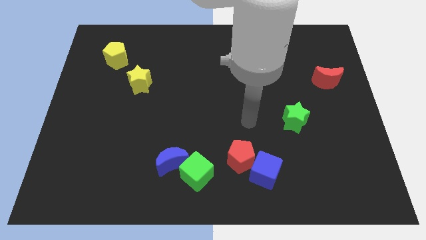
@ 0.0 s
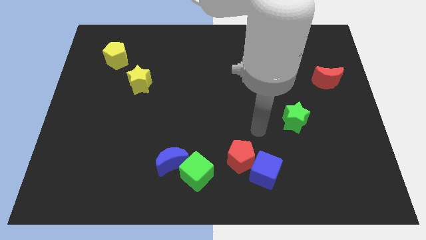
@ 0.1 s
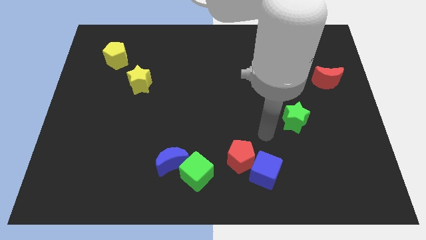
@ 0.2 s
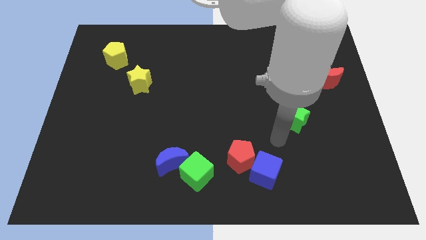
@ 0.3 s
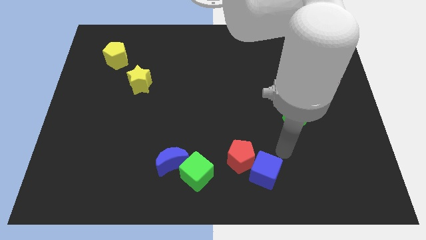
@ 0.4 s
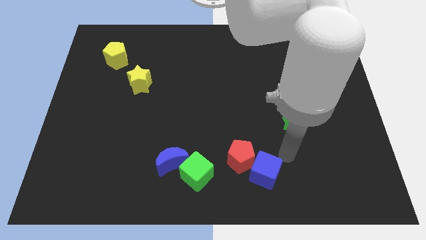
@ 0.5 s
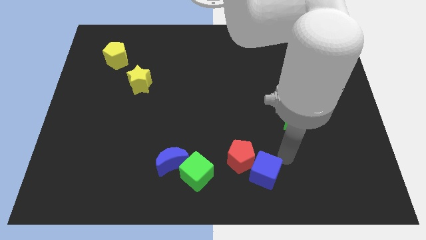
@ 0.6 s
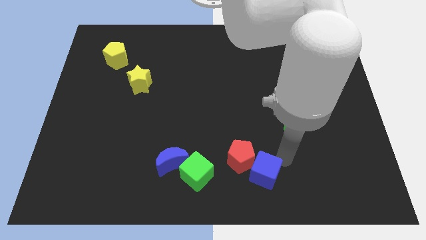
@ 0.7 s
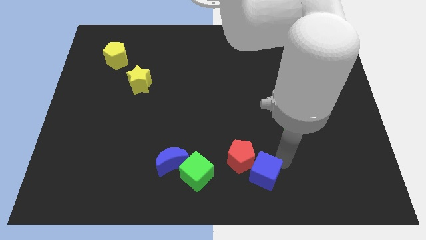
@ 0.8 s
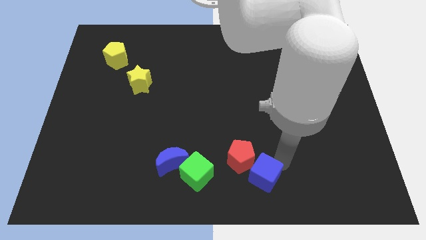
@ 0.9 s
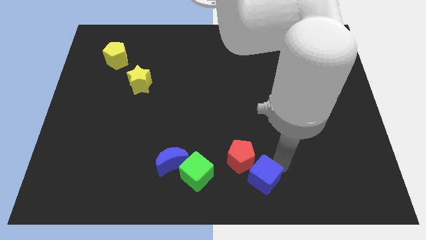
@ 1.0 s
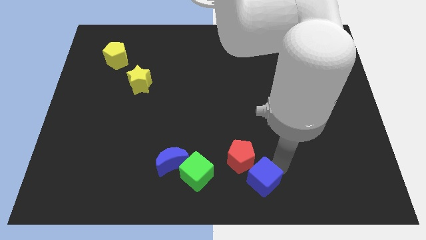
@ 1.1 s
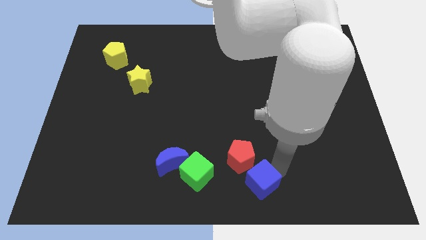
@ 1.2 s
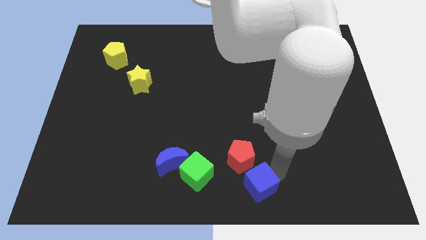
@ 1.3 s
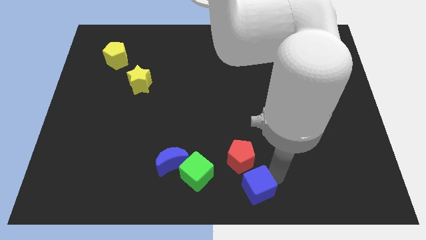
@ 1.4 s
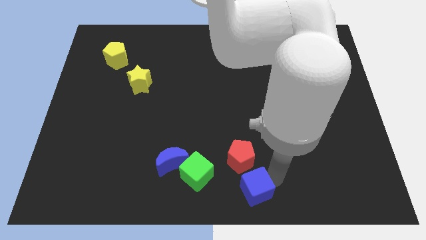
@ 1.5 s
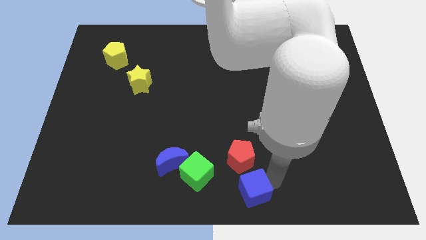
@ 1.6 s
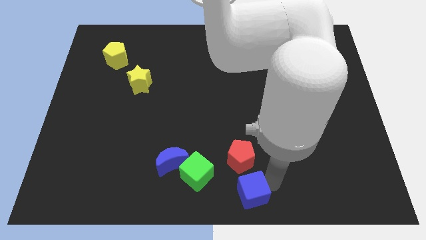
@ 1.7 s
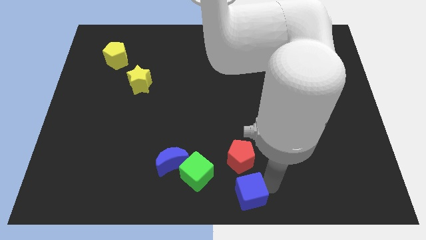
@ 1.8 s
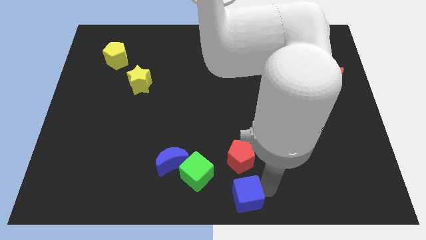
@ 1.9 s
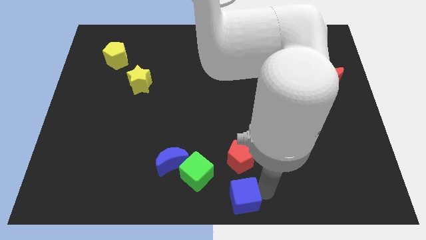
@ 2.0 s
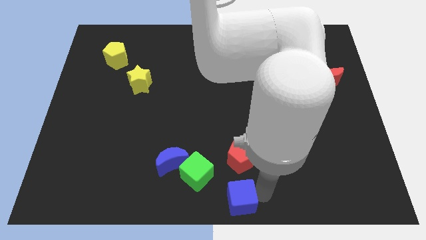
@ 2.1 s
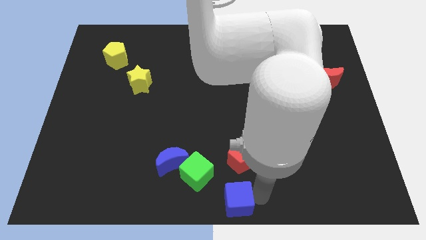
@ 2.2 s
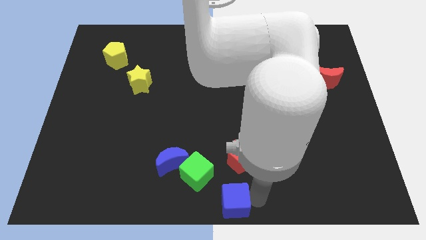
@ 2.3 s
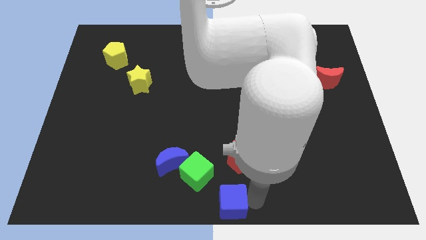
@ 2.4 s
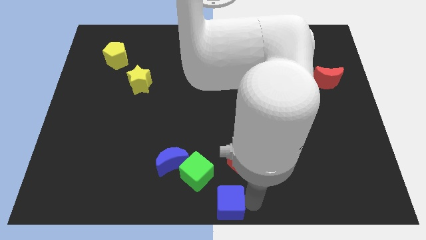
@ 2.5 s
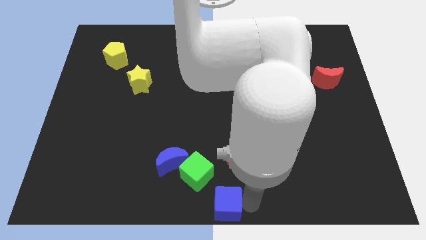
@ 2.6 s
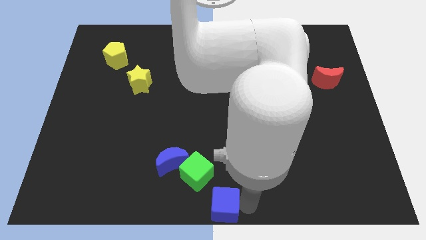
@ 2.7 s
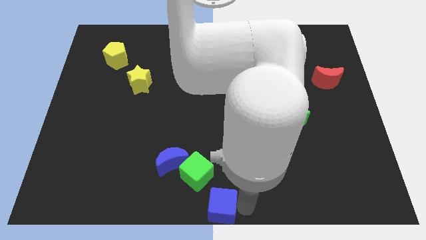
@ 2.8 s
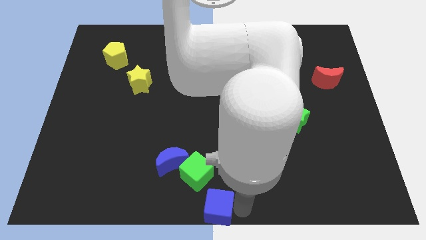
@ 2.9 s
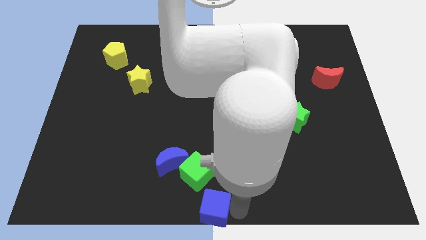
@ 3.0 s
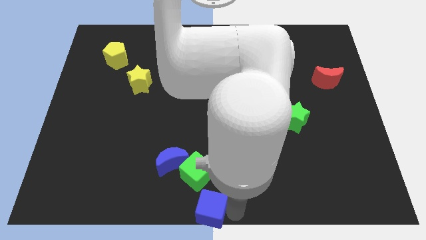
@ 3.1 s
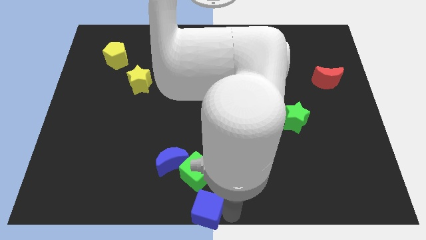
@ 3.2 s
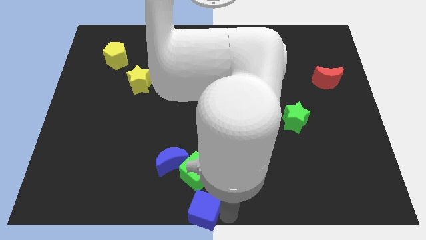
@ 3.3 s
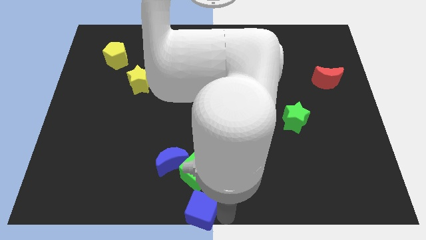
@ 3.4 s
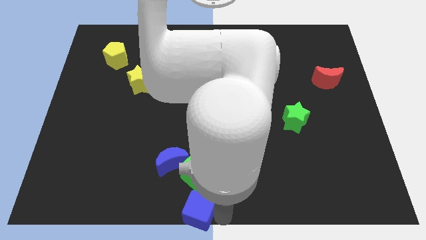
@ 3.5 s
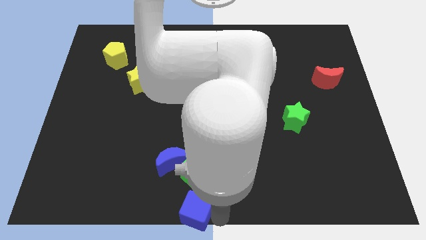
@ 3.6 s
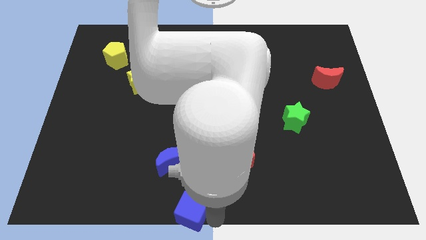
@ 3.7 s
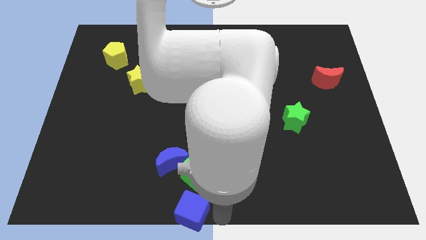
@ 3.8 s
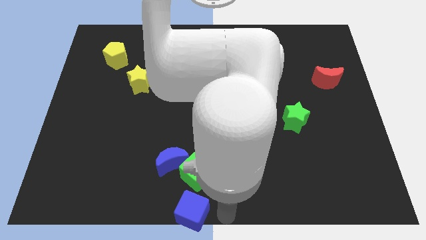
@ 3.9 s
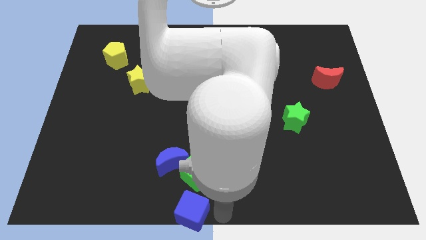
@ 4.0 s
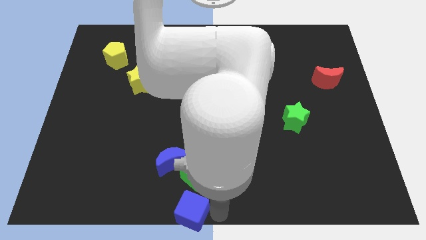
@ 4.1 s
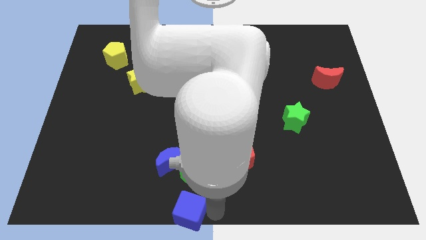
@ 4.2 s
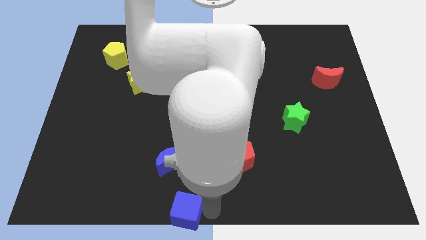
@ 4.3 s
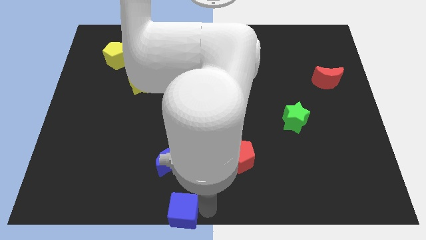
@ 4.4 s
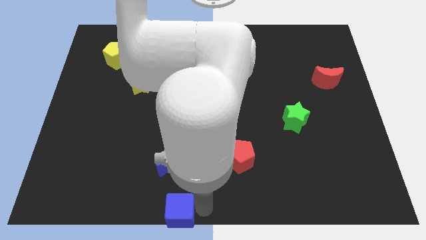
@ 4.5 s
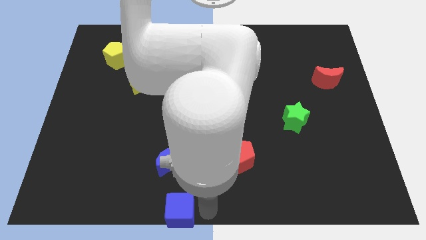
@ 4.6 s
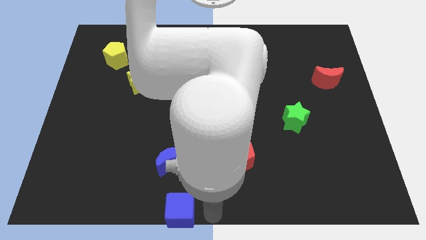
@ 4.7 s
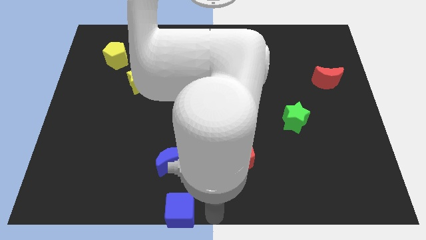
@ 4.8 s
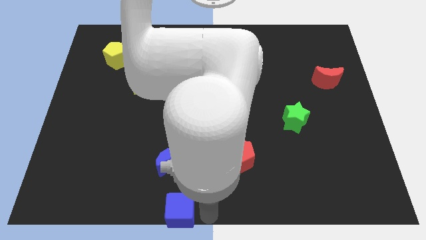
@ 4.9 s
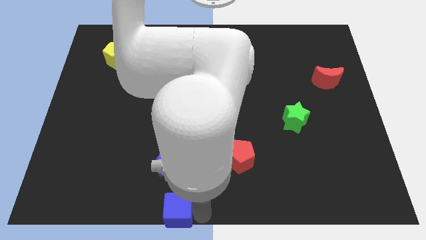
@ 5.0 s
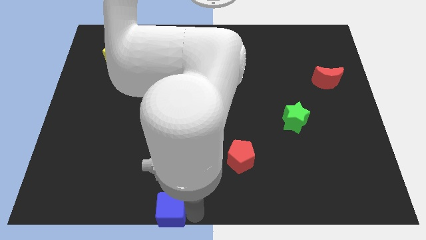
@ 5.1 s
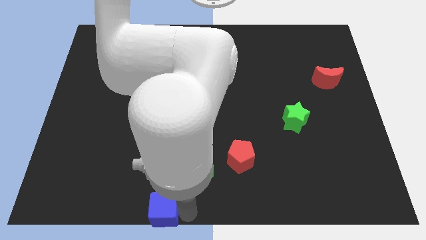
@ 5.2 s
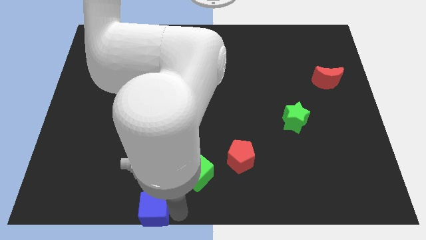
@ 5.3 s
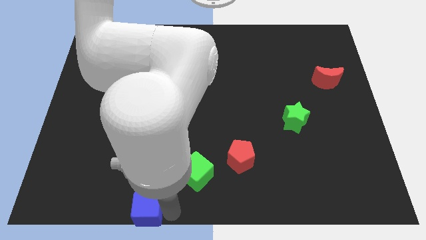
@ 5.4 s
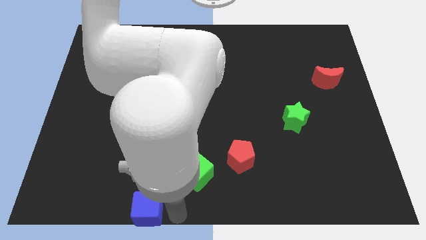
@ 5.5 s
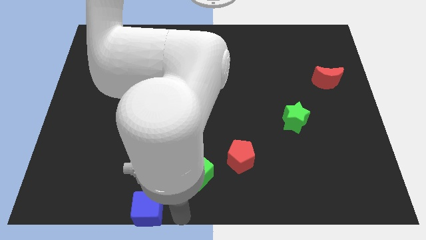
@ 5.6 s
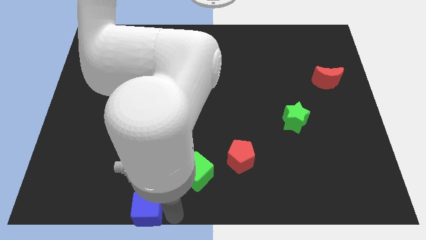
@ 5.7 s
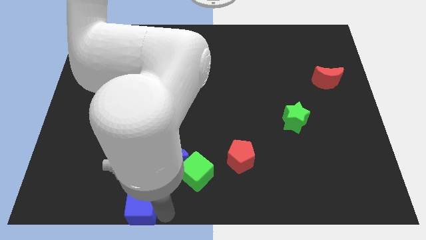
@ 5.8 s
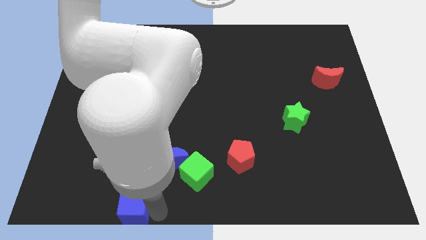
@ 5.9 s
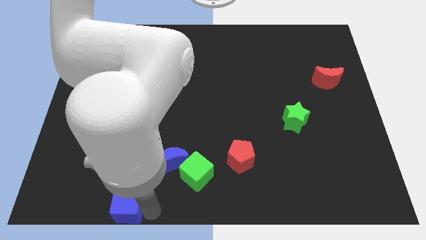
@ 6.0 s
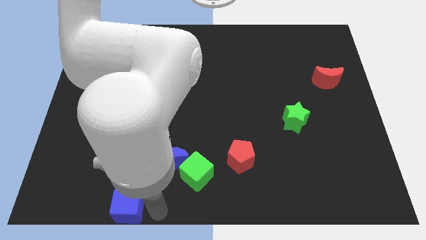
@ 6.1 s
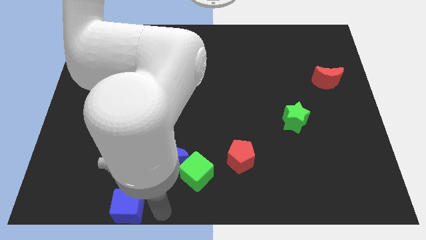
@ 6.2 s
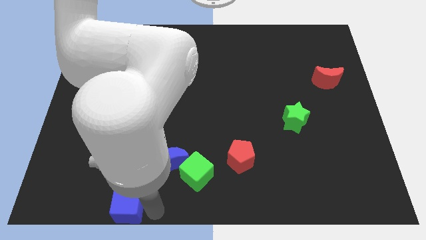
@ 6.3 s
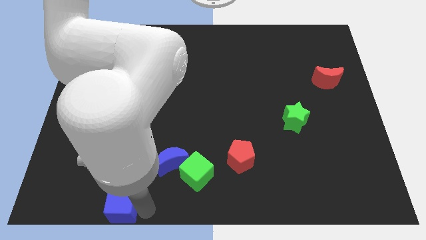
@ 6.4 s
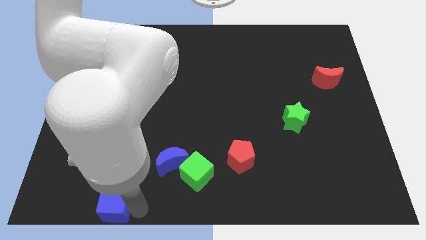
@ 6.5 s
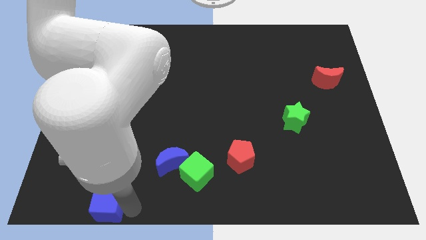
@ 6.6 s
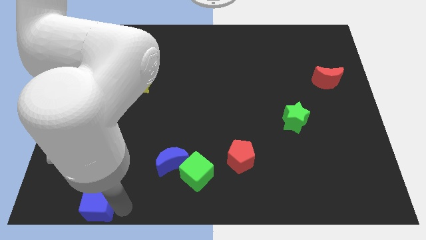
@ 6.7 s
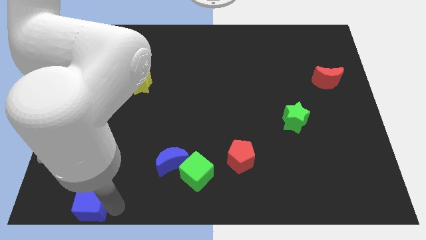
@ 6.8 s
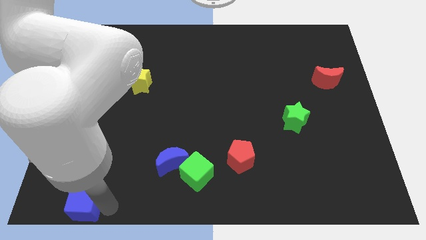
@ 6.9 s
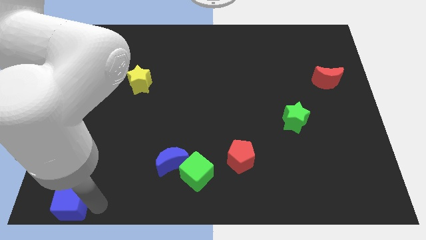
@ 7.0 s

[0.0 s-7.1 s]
slide the blue cube to the bottom left

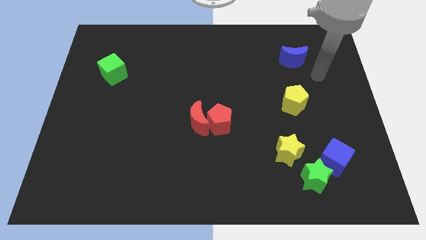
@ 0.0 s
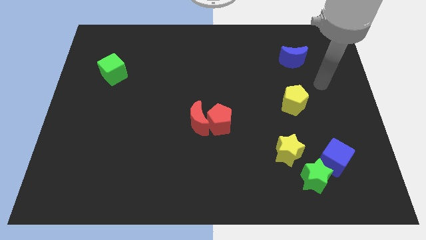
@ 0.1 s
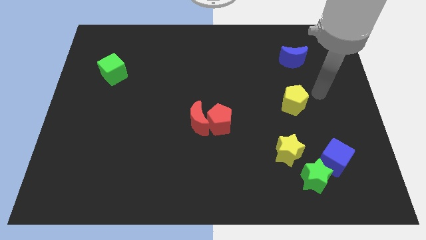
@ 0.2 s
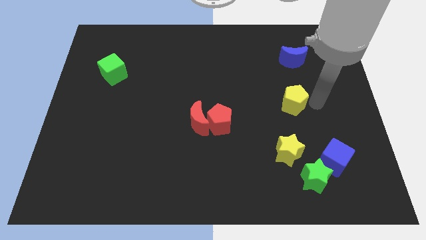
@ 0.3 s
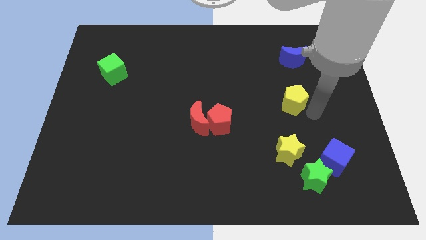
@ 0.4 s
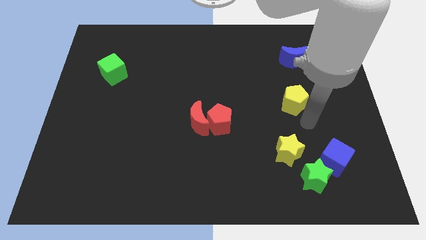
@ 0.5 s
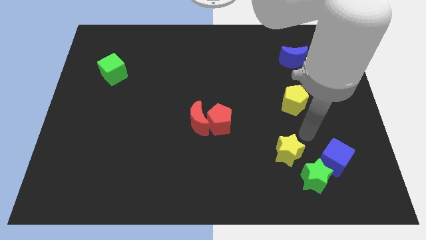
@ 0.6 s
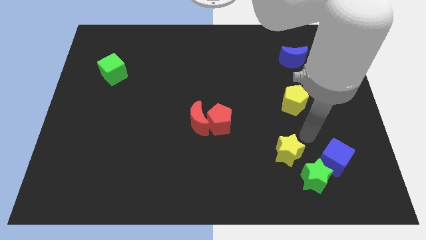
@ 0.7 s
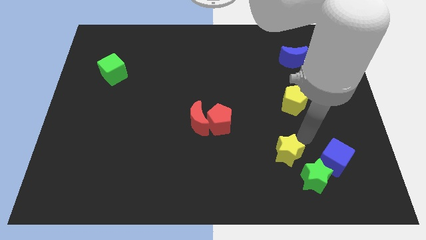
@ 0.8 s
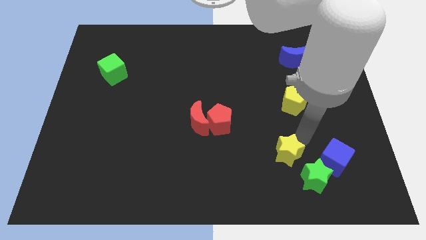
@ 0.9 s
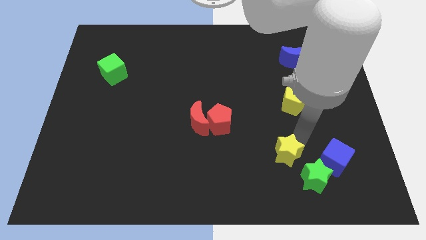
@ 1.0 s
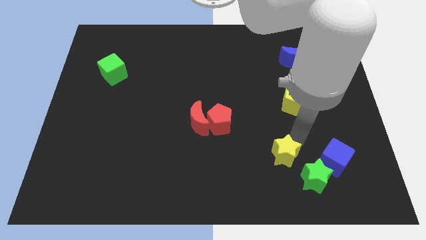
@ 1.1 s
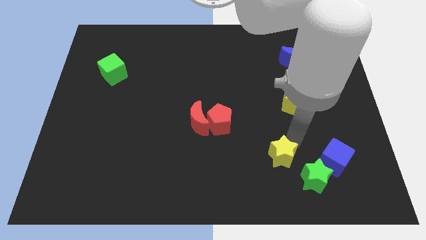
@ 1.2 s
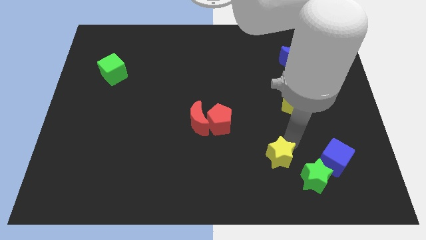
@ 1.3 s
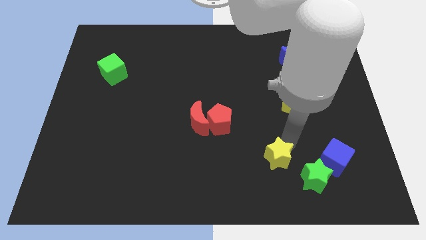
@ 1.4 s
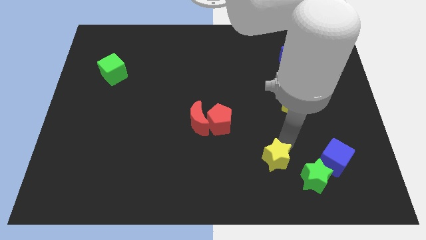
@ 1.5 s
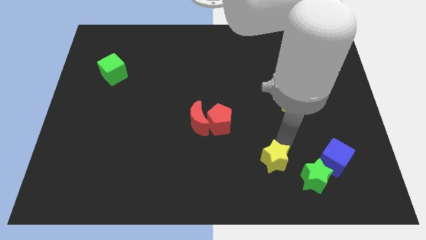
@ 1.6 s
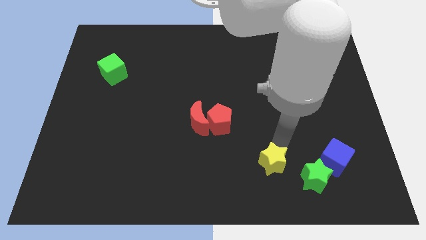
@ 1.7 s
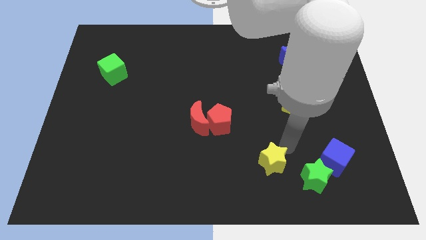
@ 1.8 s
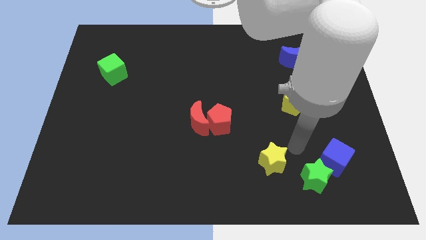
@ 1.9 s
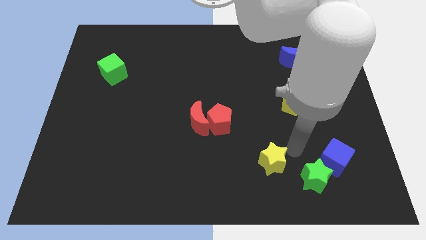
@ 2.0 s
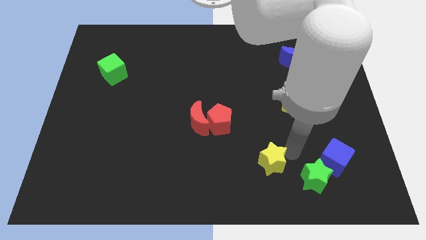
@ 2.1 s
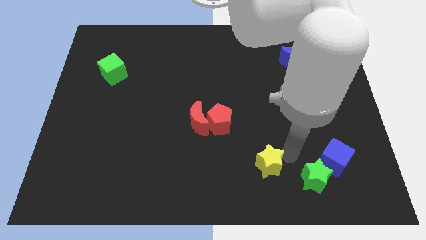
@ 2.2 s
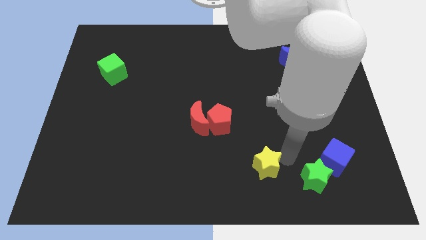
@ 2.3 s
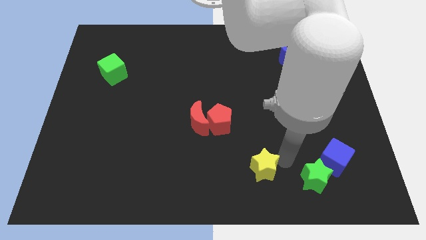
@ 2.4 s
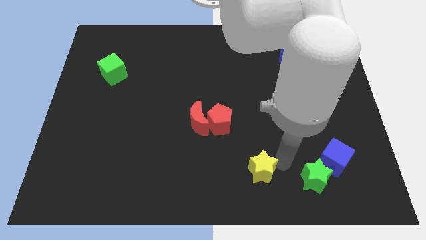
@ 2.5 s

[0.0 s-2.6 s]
push the yellow star to the bottom
